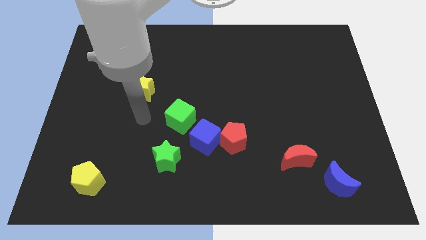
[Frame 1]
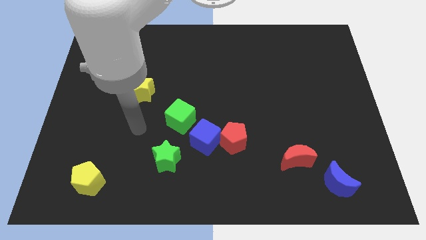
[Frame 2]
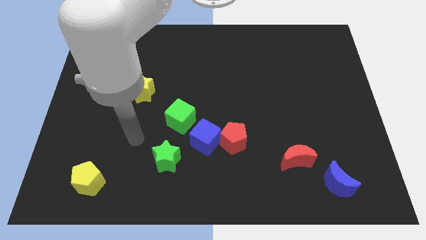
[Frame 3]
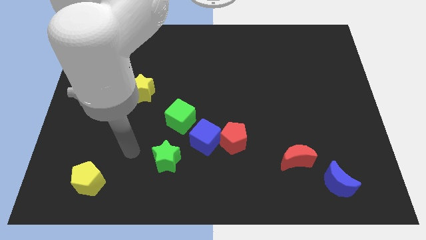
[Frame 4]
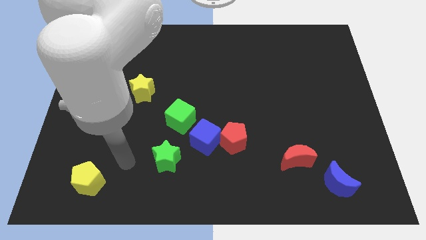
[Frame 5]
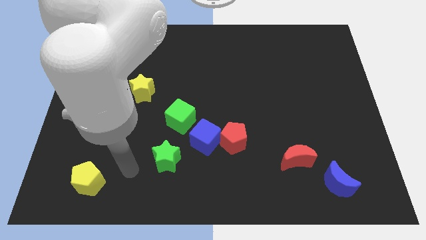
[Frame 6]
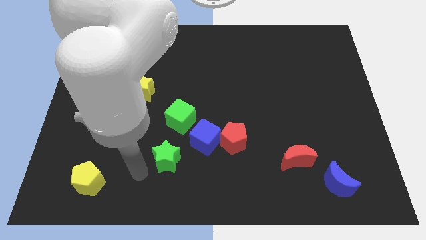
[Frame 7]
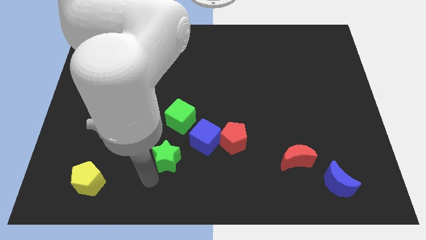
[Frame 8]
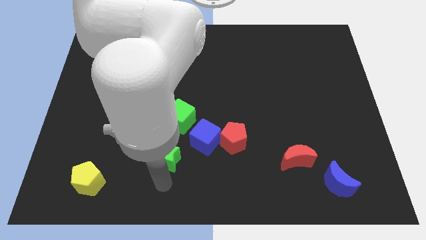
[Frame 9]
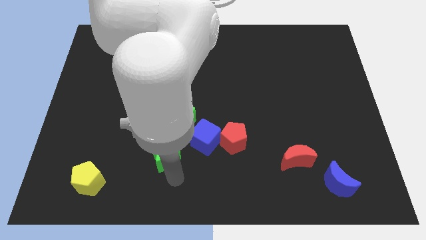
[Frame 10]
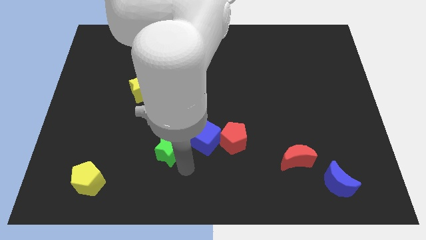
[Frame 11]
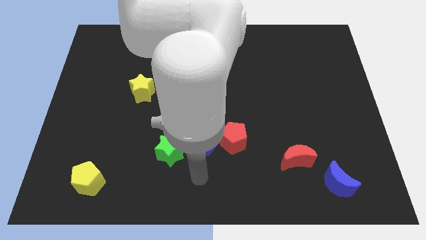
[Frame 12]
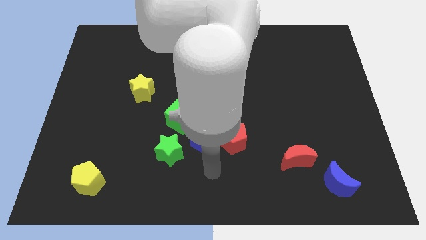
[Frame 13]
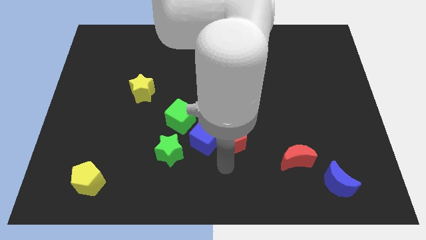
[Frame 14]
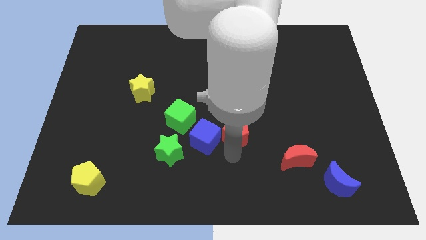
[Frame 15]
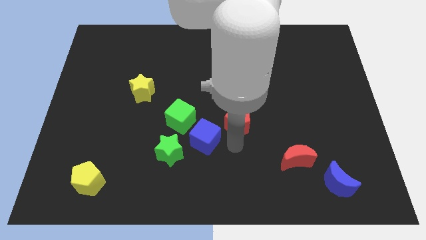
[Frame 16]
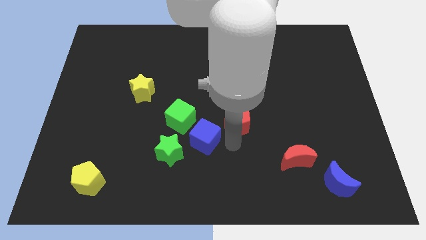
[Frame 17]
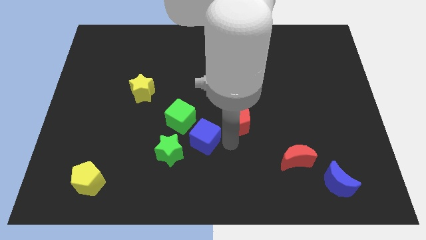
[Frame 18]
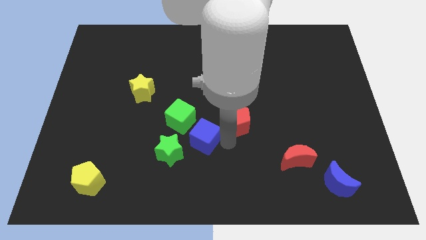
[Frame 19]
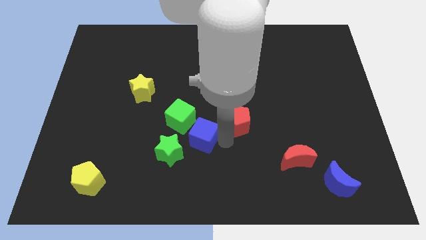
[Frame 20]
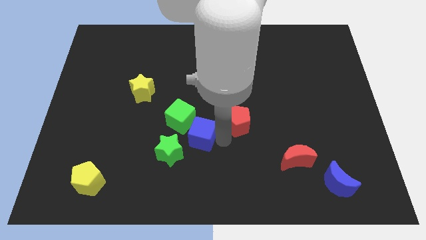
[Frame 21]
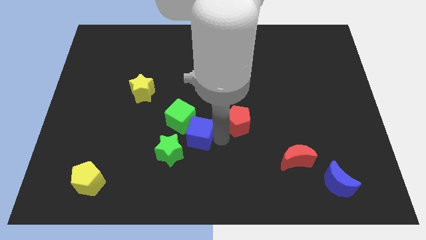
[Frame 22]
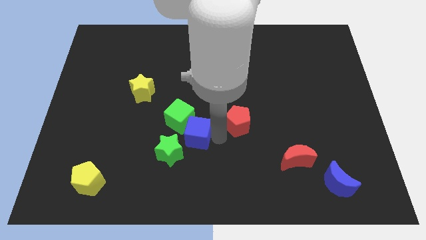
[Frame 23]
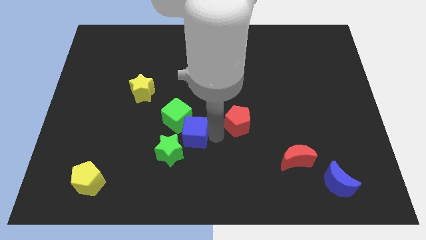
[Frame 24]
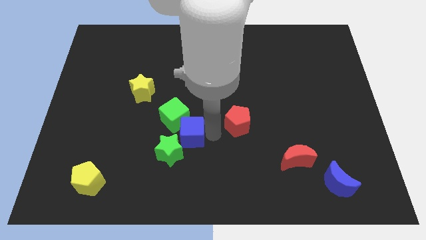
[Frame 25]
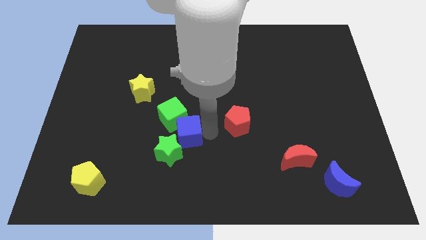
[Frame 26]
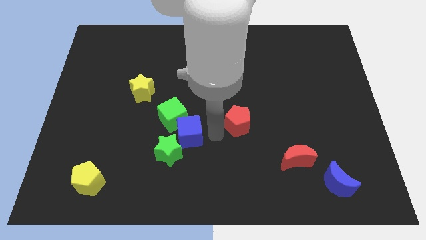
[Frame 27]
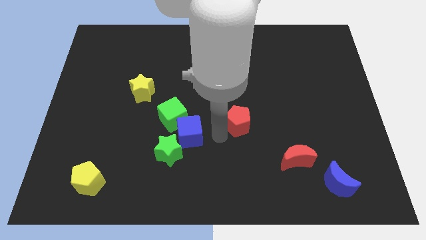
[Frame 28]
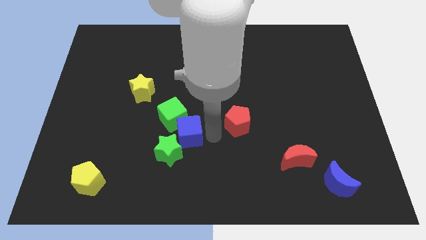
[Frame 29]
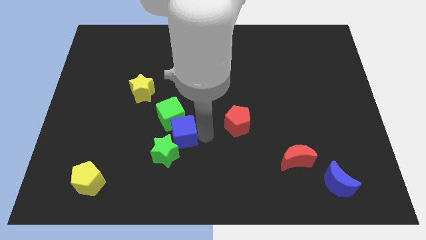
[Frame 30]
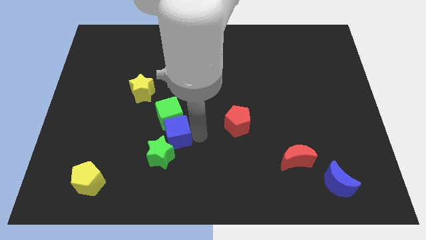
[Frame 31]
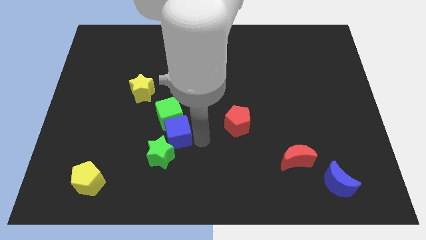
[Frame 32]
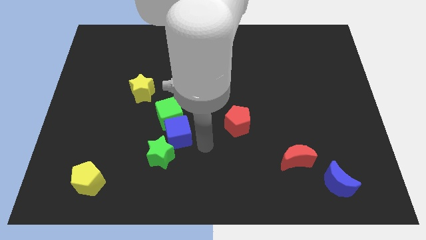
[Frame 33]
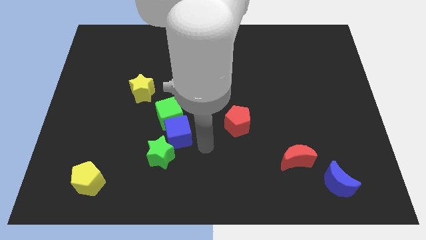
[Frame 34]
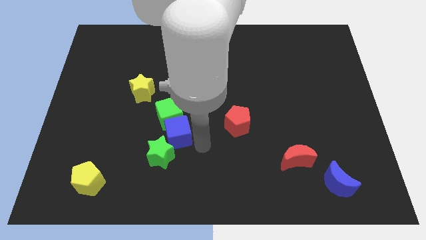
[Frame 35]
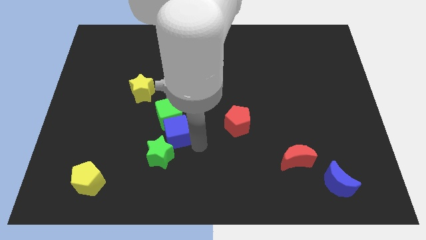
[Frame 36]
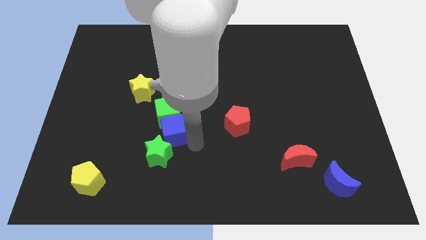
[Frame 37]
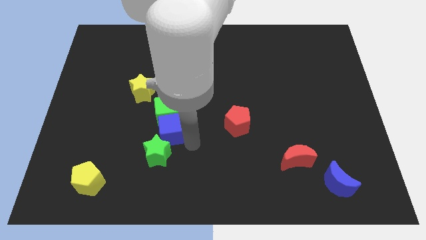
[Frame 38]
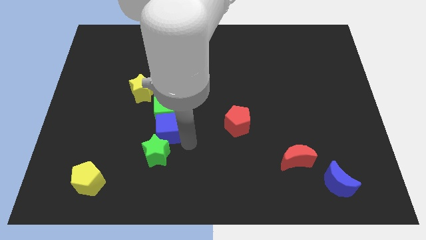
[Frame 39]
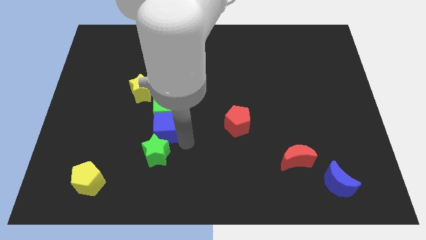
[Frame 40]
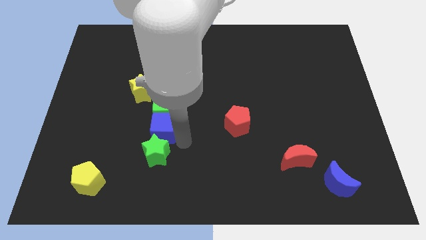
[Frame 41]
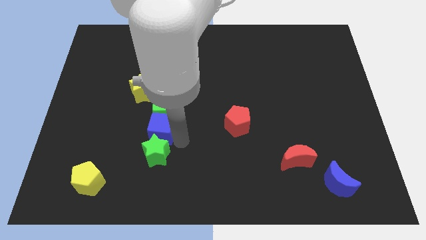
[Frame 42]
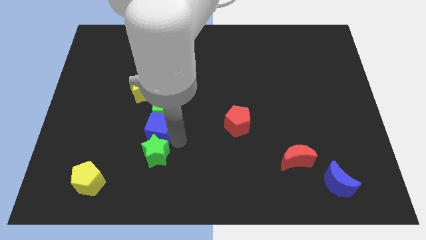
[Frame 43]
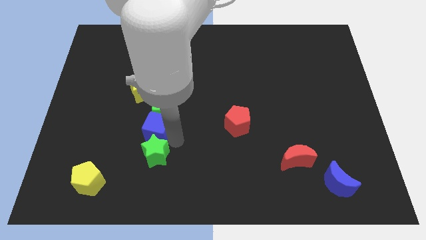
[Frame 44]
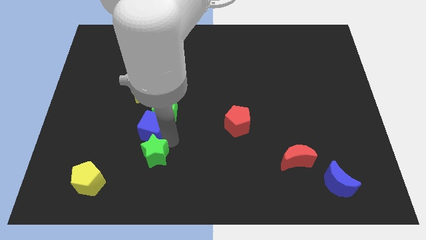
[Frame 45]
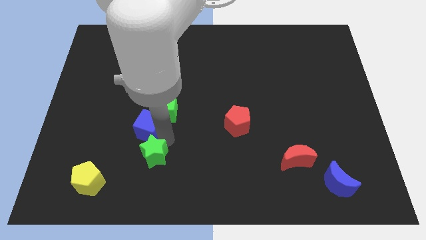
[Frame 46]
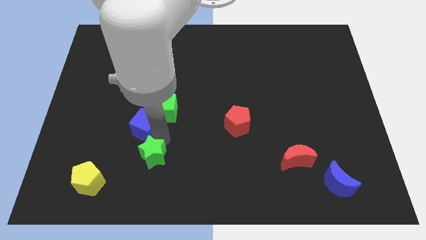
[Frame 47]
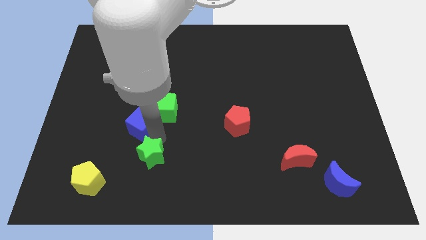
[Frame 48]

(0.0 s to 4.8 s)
push the blue cube to the left of the green cube

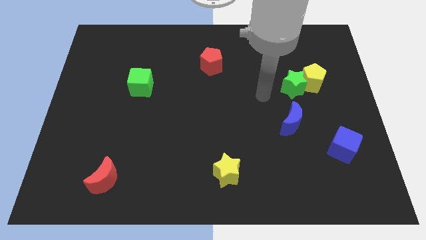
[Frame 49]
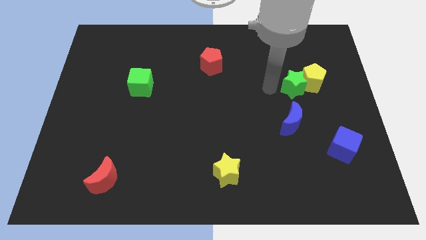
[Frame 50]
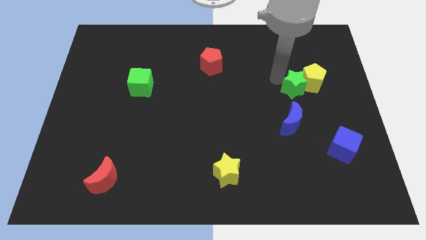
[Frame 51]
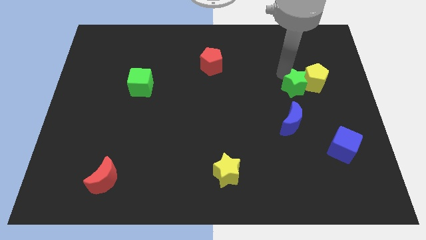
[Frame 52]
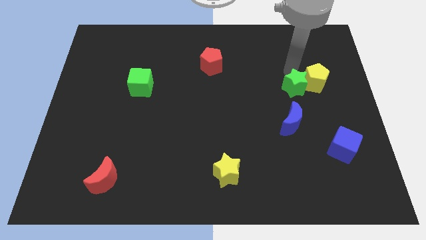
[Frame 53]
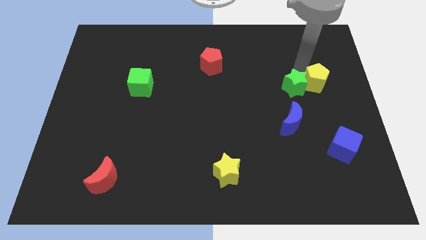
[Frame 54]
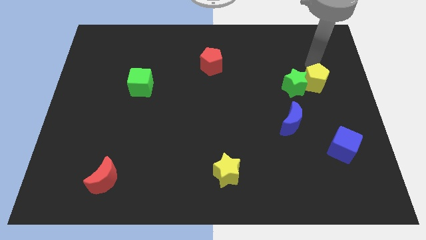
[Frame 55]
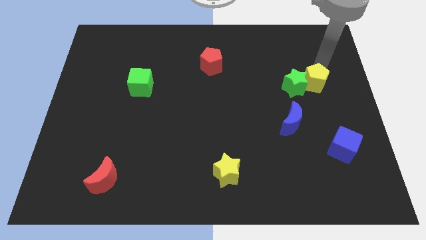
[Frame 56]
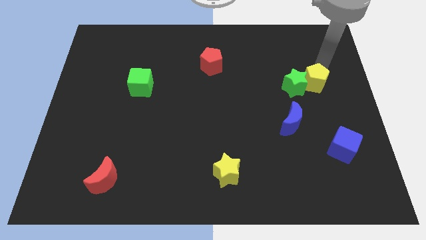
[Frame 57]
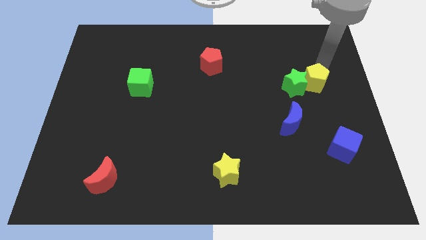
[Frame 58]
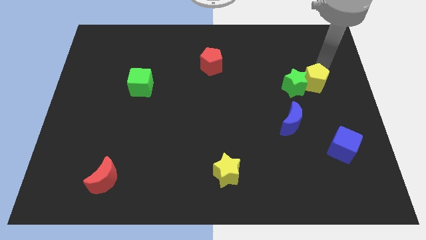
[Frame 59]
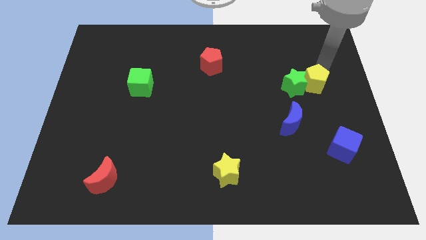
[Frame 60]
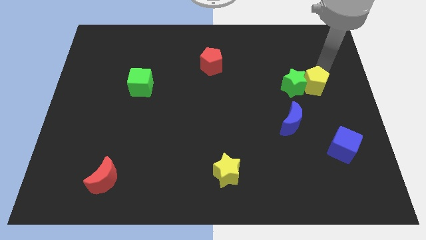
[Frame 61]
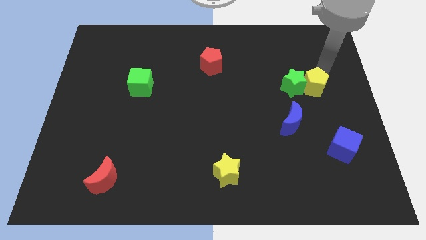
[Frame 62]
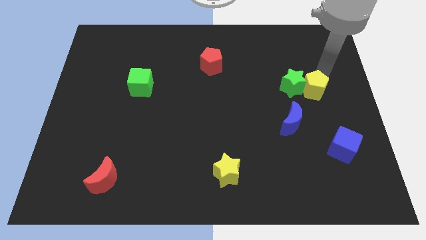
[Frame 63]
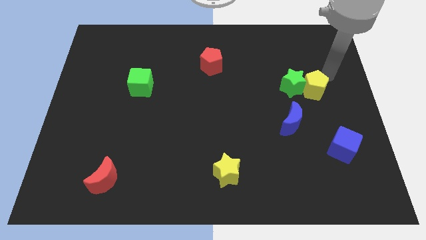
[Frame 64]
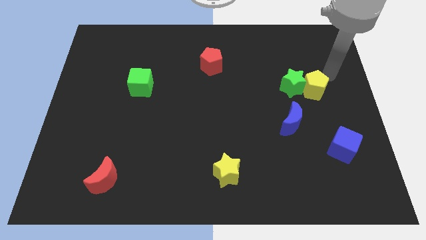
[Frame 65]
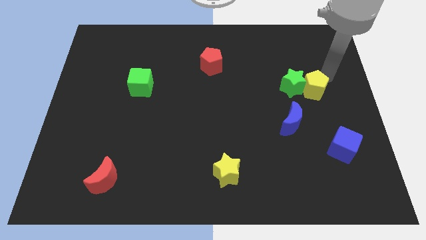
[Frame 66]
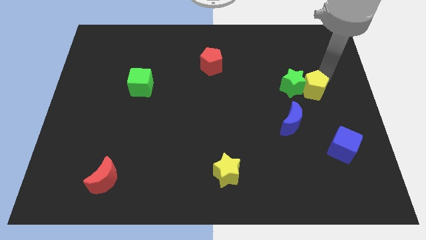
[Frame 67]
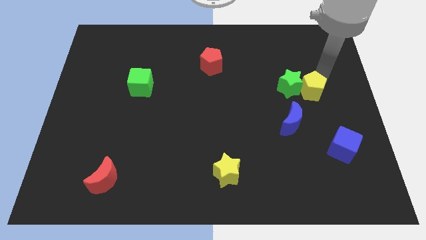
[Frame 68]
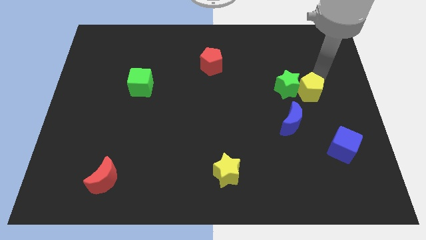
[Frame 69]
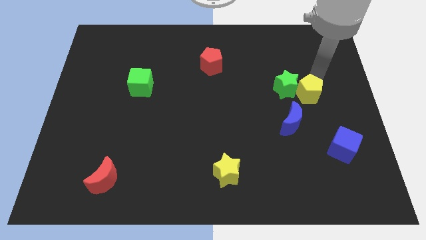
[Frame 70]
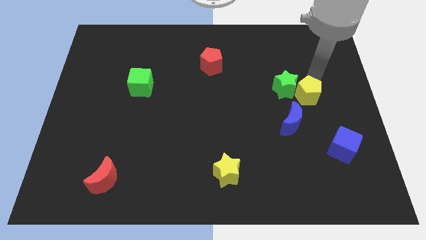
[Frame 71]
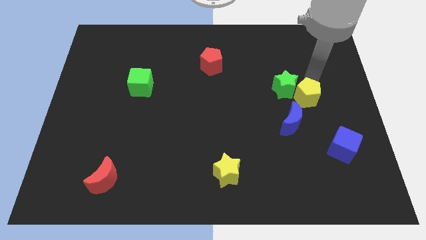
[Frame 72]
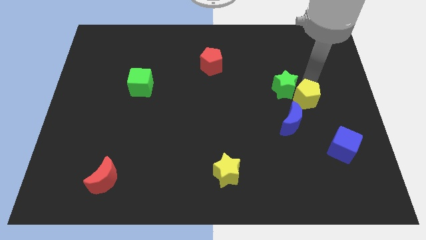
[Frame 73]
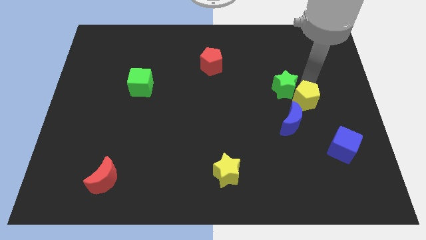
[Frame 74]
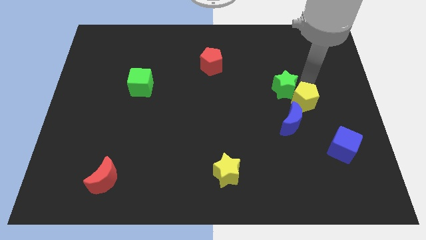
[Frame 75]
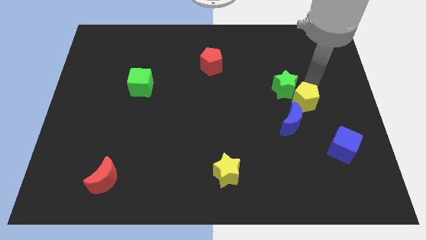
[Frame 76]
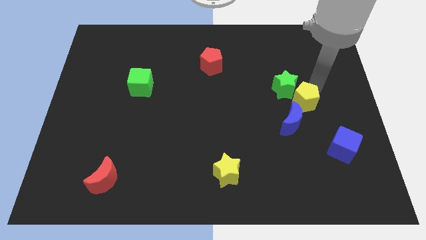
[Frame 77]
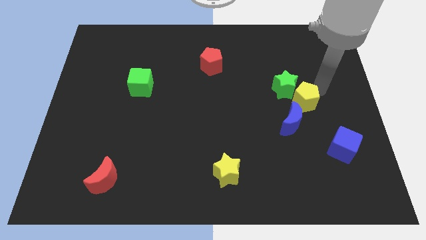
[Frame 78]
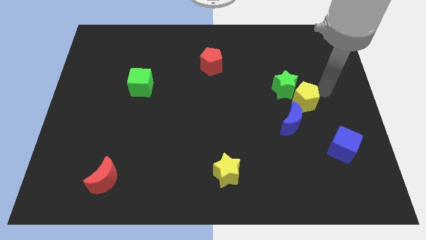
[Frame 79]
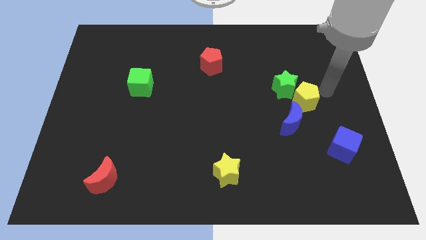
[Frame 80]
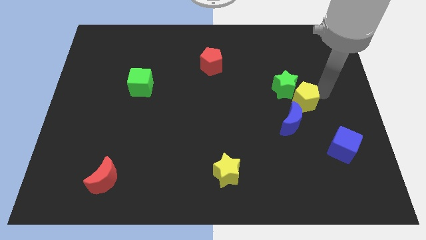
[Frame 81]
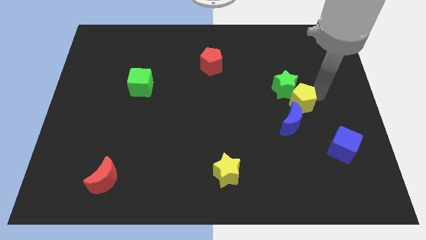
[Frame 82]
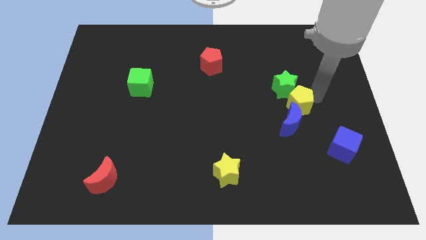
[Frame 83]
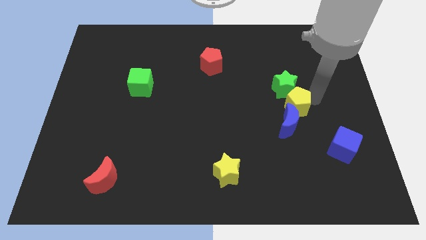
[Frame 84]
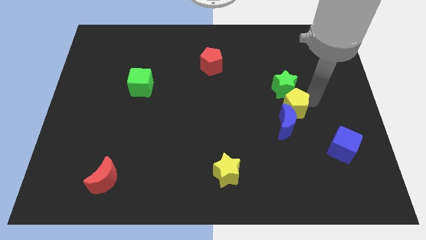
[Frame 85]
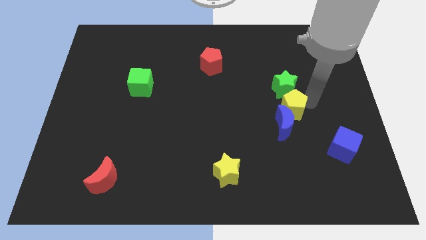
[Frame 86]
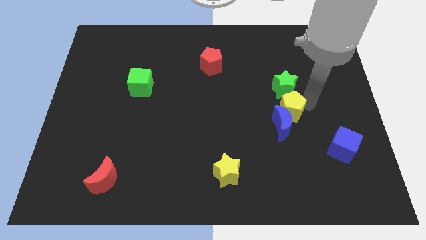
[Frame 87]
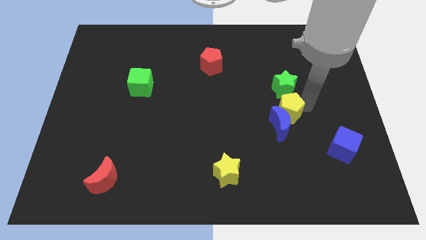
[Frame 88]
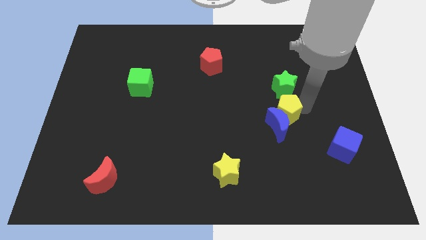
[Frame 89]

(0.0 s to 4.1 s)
slide the yellow pentagon to the top left side of the blue moon
